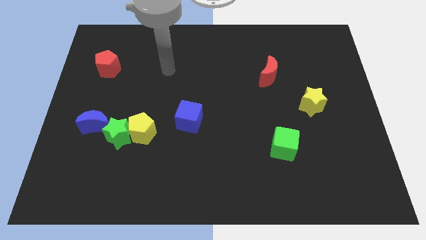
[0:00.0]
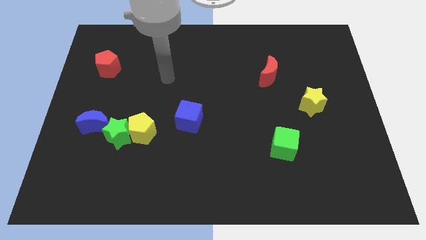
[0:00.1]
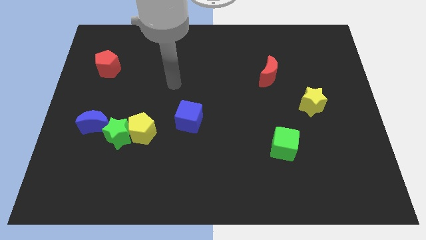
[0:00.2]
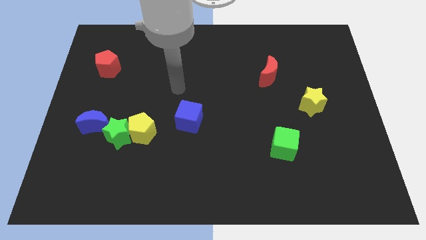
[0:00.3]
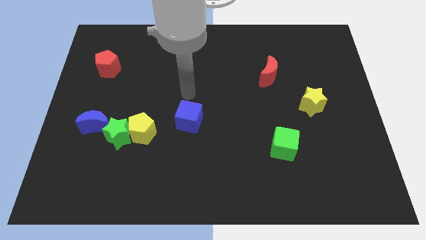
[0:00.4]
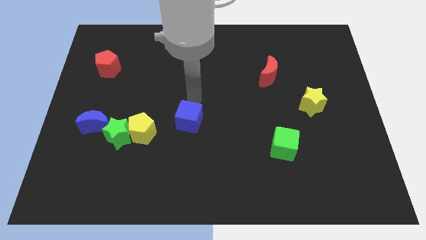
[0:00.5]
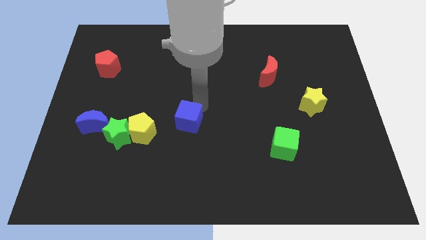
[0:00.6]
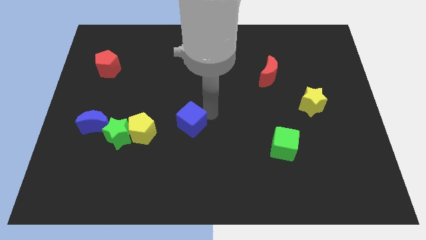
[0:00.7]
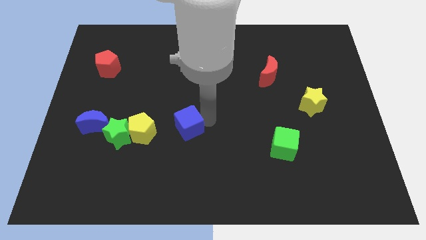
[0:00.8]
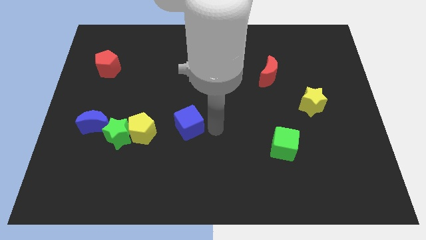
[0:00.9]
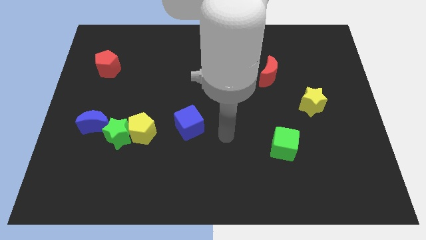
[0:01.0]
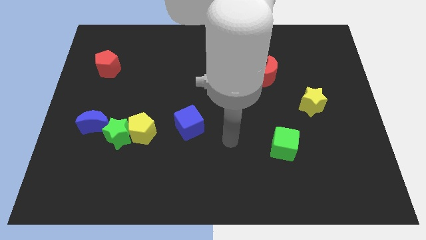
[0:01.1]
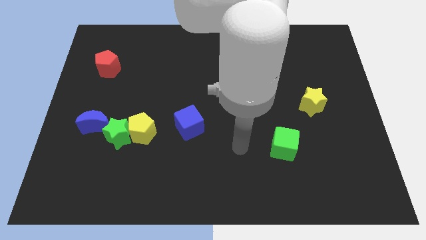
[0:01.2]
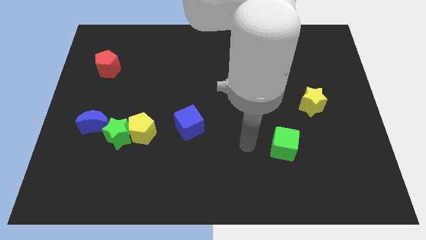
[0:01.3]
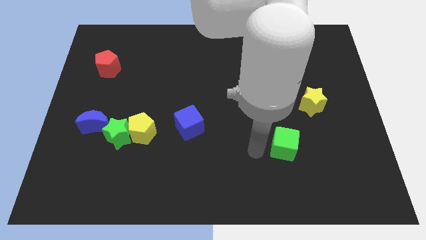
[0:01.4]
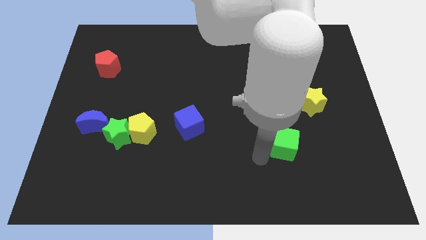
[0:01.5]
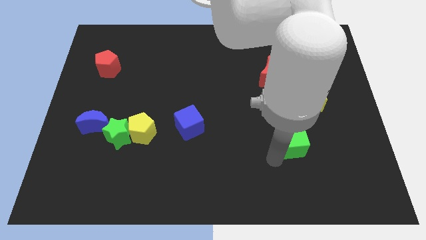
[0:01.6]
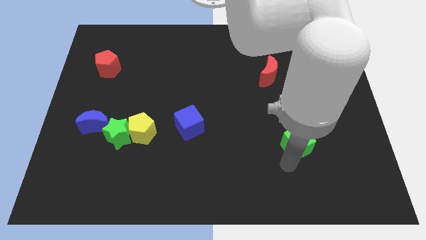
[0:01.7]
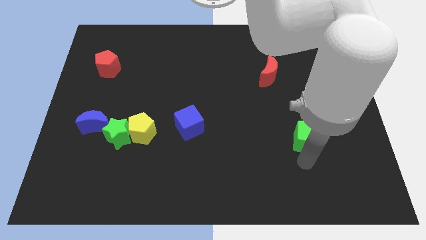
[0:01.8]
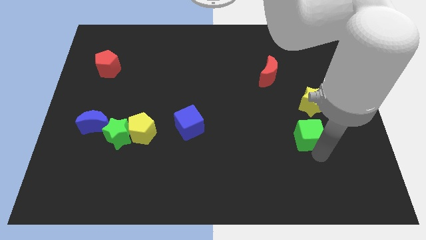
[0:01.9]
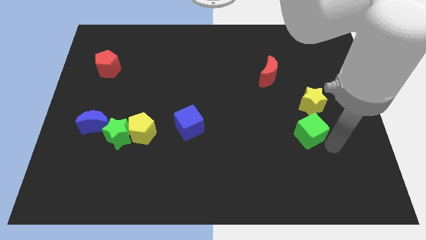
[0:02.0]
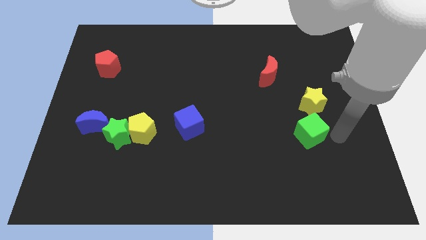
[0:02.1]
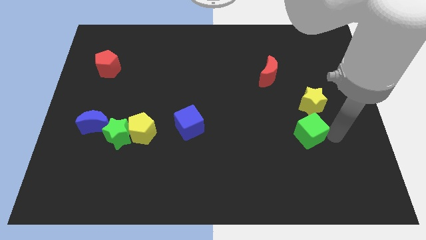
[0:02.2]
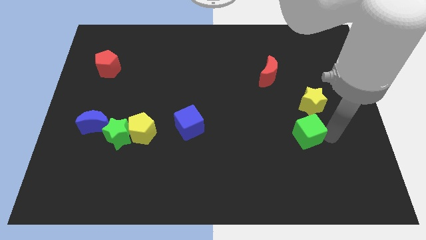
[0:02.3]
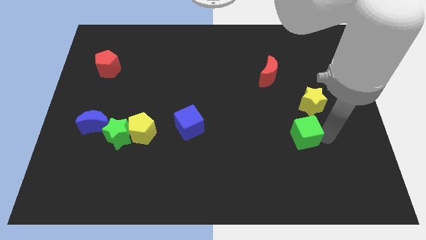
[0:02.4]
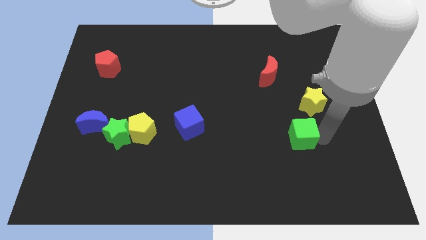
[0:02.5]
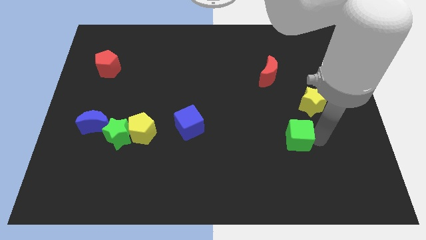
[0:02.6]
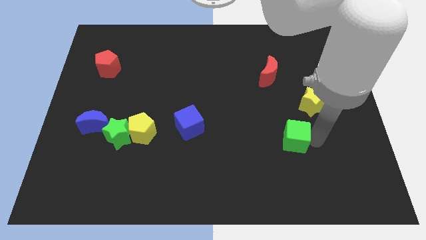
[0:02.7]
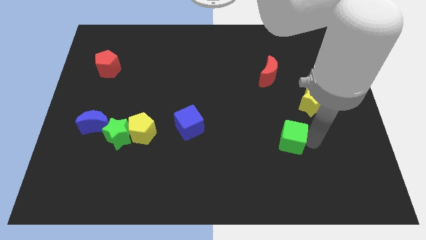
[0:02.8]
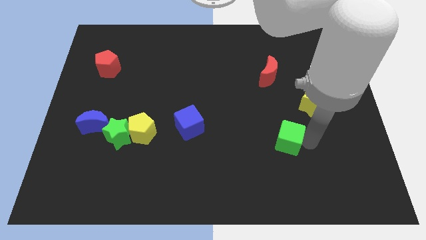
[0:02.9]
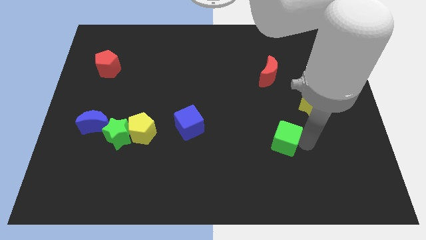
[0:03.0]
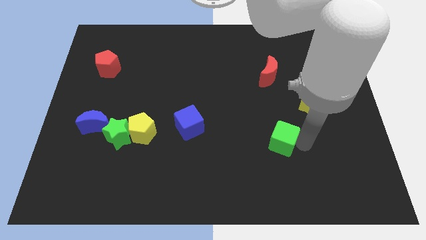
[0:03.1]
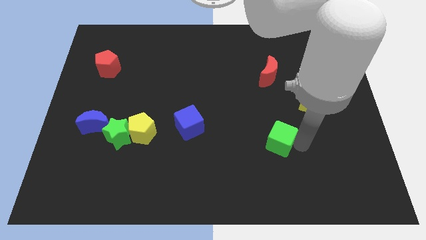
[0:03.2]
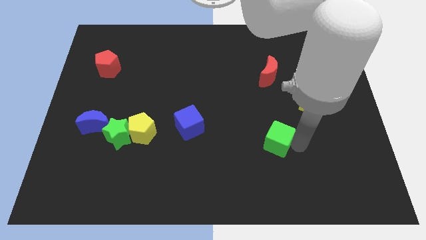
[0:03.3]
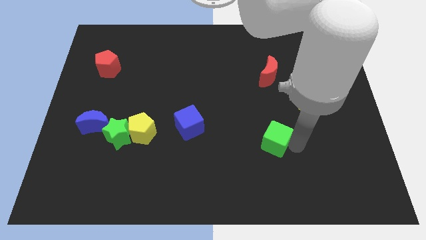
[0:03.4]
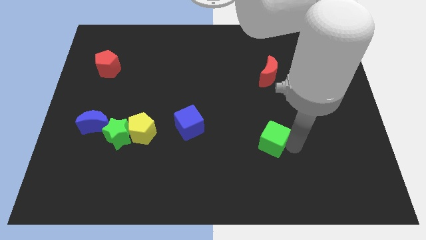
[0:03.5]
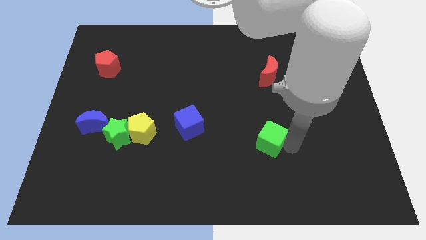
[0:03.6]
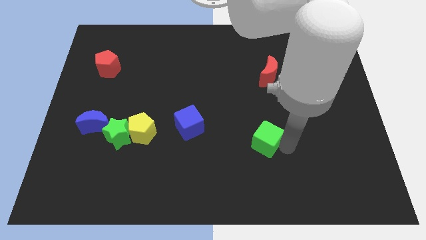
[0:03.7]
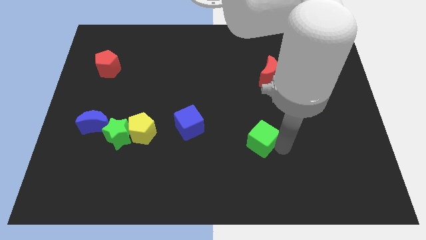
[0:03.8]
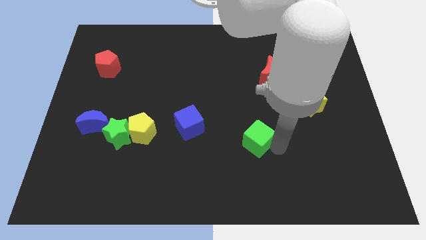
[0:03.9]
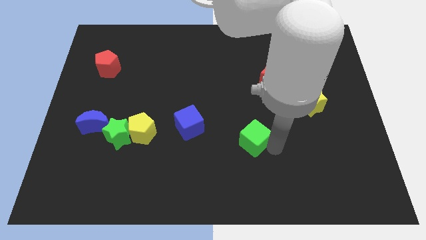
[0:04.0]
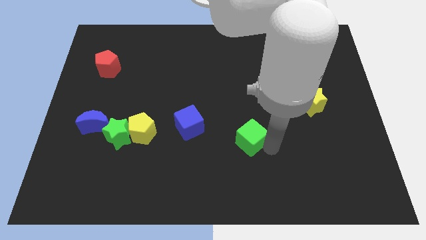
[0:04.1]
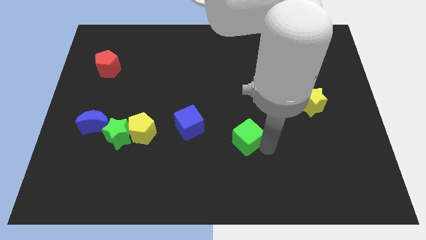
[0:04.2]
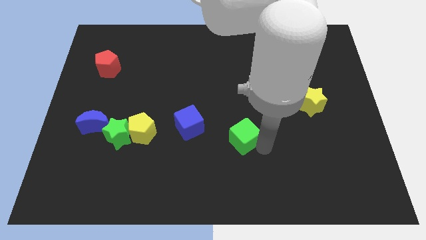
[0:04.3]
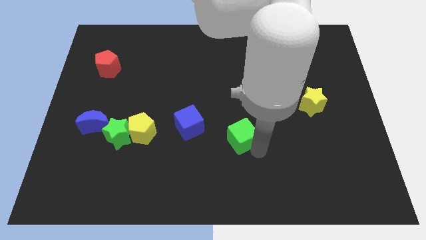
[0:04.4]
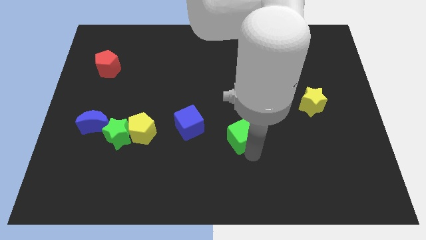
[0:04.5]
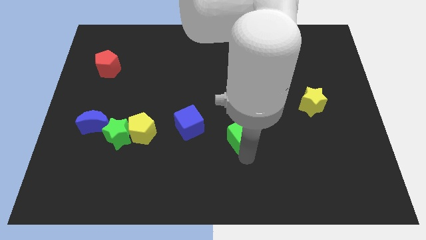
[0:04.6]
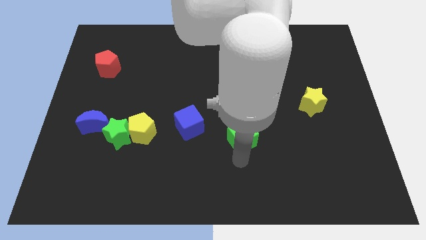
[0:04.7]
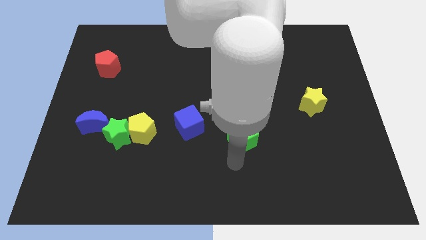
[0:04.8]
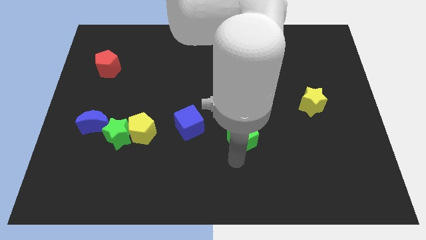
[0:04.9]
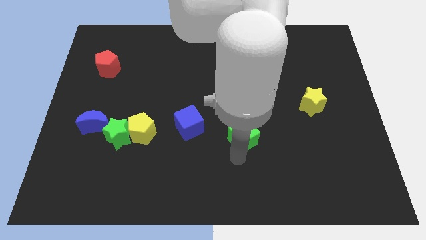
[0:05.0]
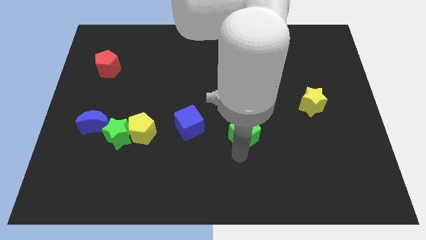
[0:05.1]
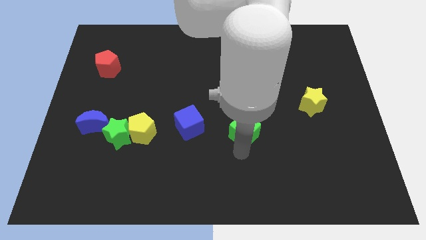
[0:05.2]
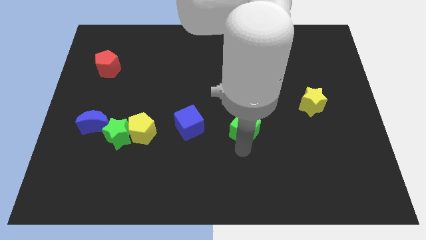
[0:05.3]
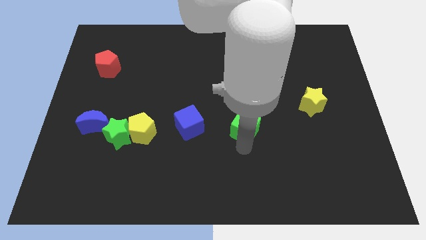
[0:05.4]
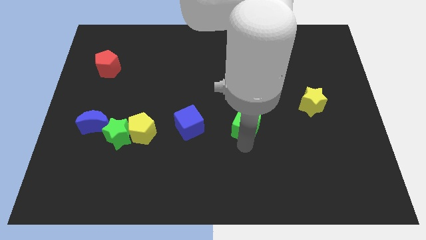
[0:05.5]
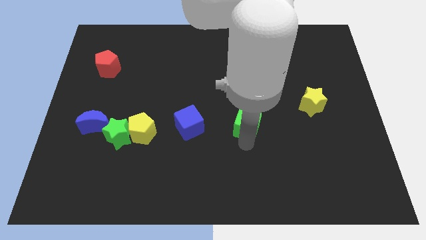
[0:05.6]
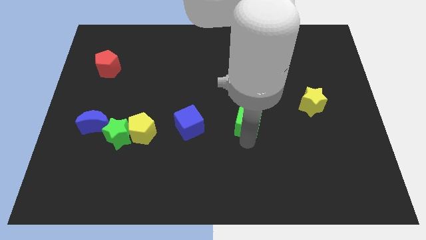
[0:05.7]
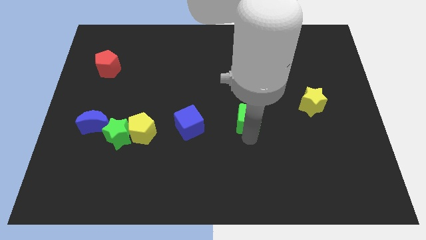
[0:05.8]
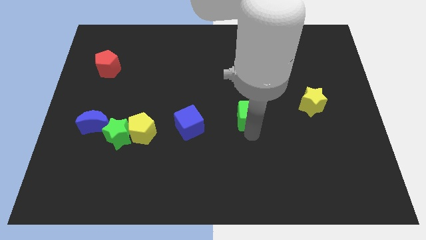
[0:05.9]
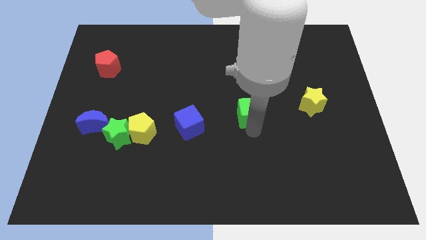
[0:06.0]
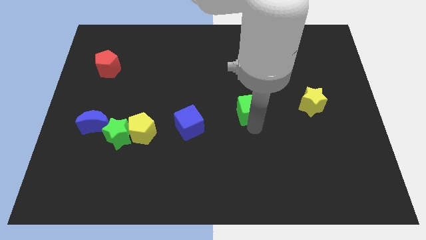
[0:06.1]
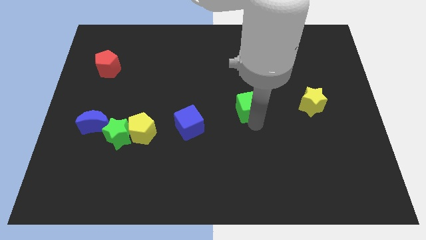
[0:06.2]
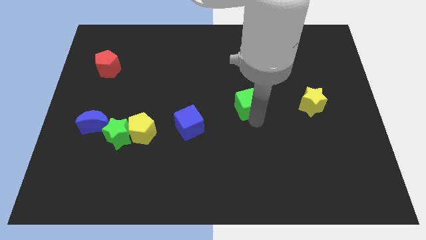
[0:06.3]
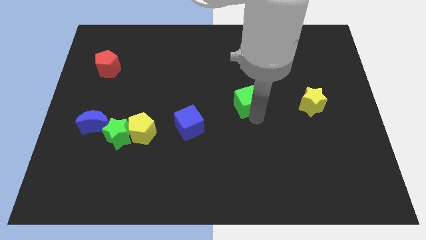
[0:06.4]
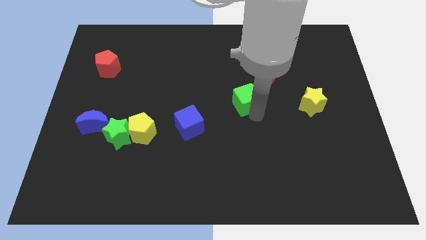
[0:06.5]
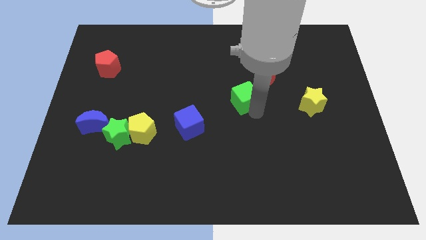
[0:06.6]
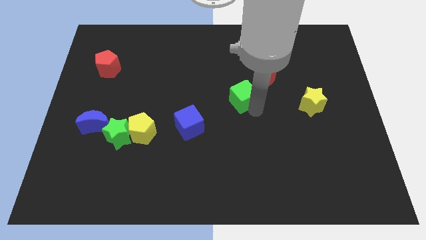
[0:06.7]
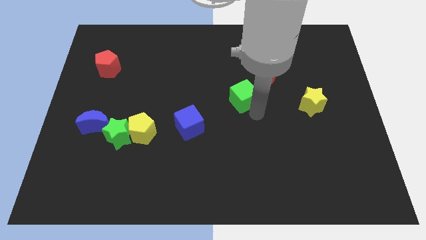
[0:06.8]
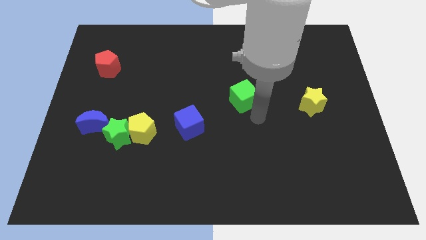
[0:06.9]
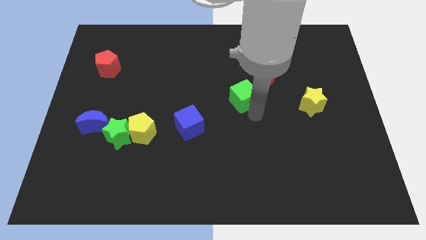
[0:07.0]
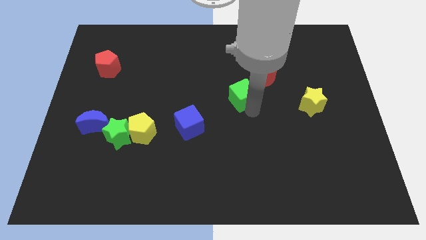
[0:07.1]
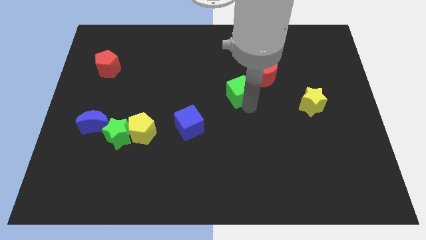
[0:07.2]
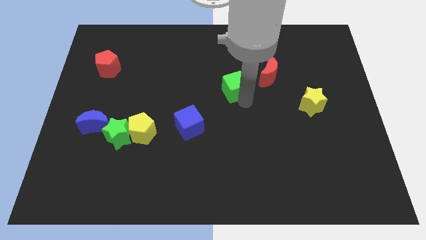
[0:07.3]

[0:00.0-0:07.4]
slide the green cube left of the red moon
